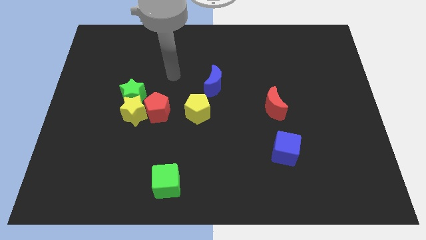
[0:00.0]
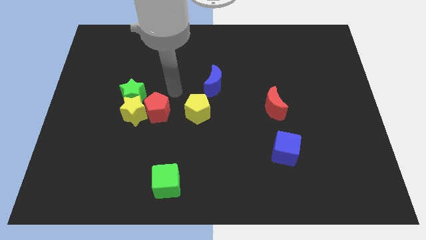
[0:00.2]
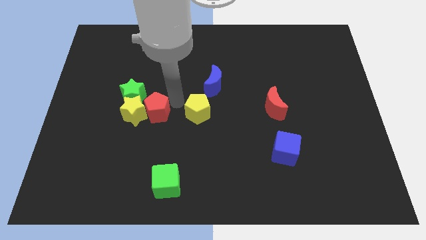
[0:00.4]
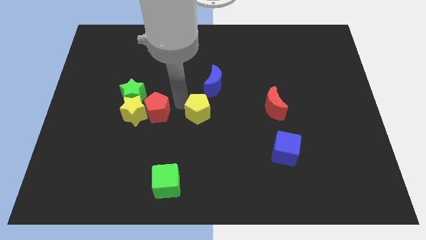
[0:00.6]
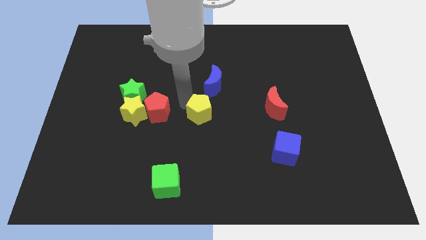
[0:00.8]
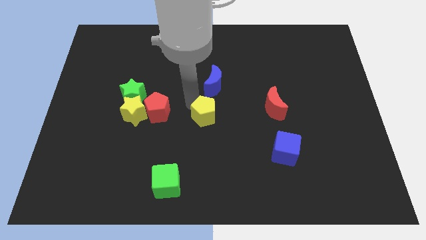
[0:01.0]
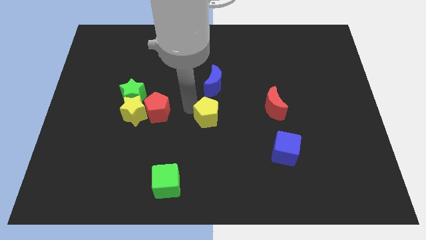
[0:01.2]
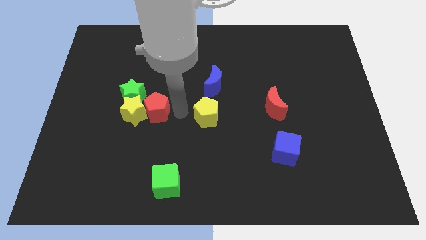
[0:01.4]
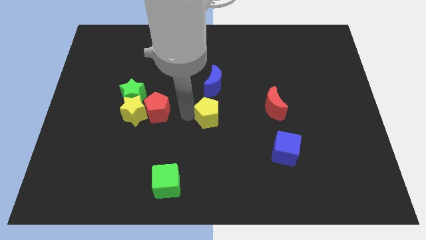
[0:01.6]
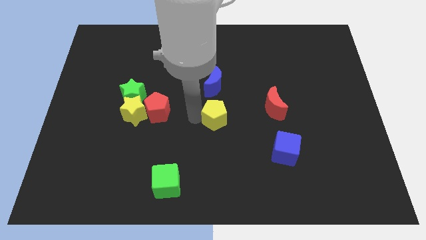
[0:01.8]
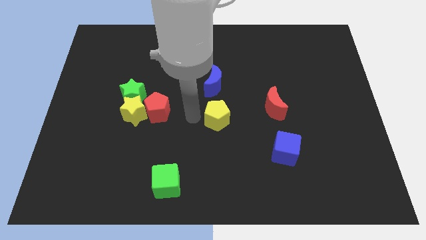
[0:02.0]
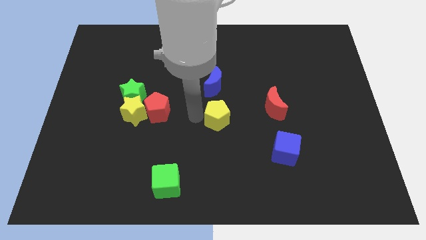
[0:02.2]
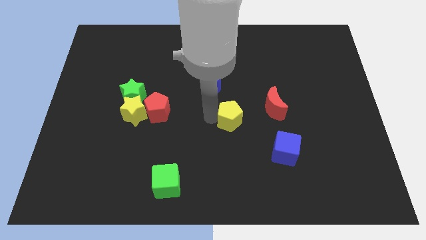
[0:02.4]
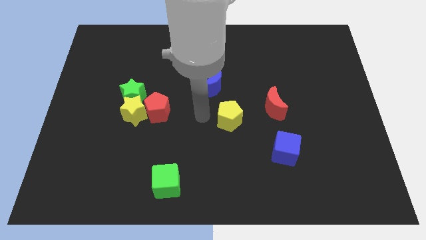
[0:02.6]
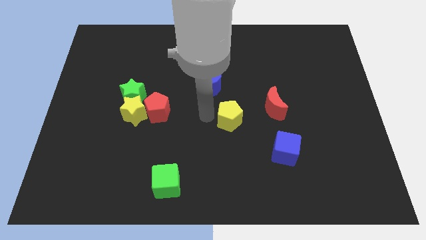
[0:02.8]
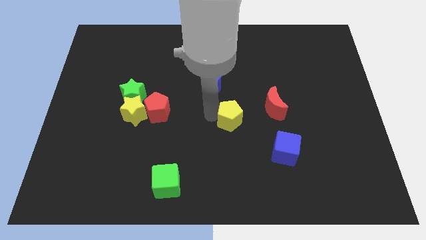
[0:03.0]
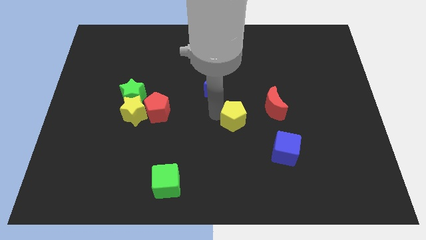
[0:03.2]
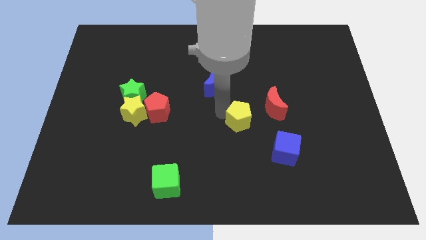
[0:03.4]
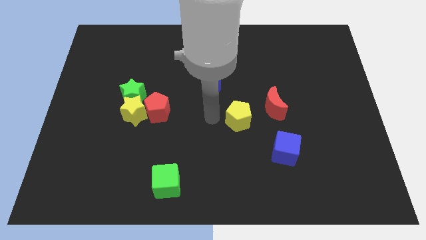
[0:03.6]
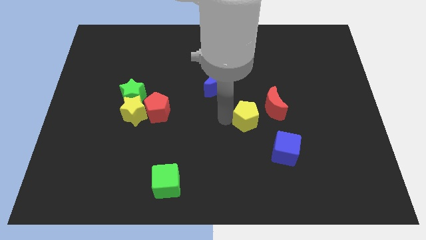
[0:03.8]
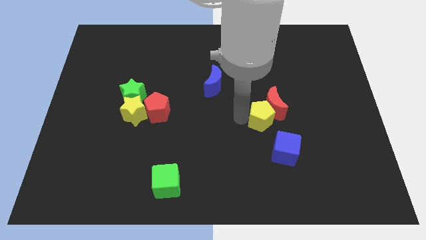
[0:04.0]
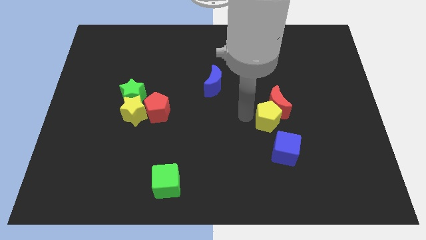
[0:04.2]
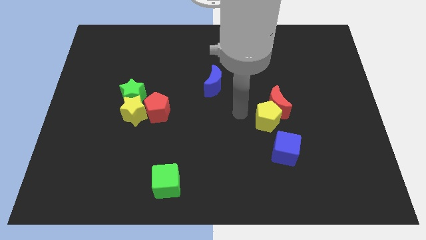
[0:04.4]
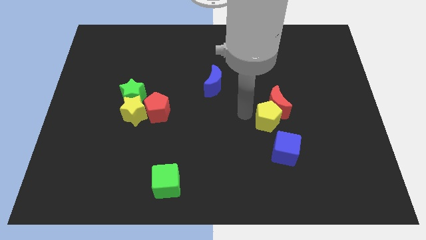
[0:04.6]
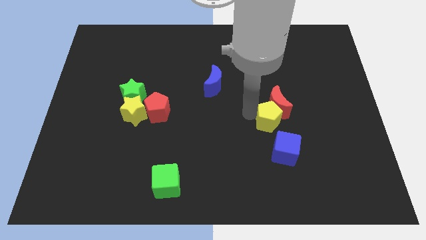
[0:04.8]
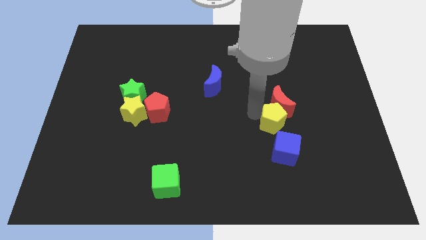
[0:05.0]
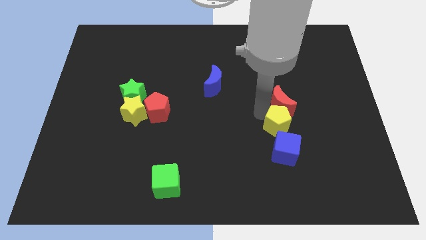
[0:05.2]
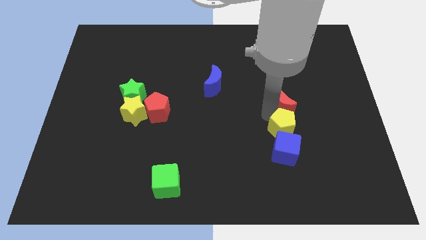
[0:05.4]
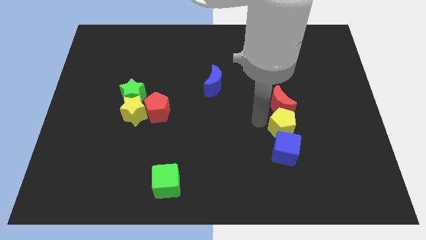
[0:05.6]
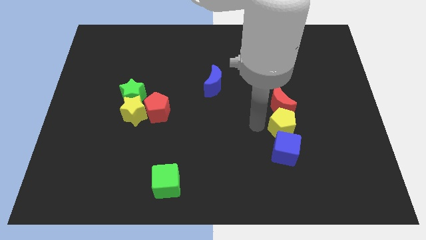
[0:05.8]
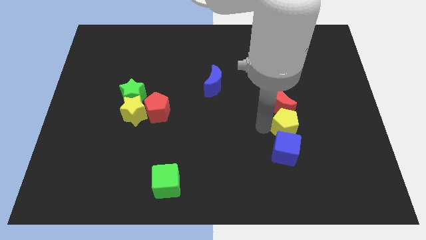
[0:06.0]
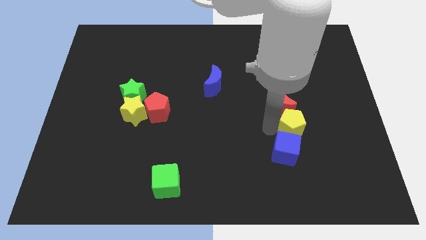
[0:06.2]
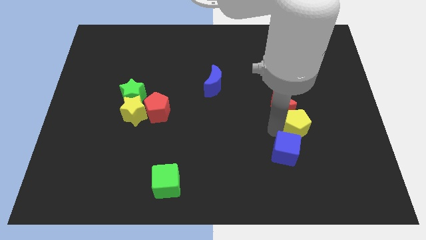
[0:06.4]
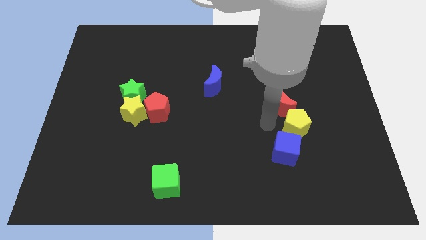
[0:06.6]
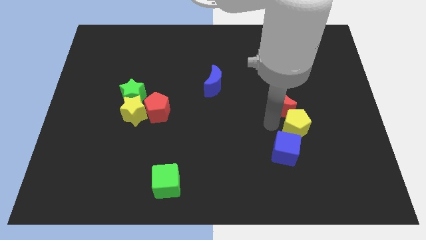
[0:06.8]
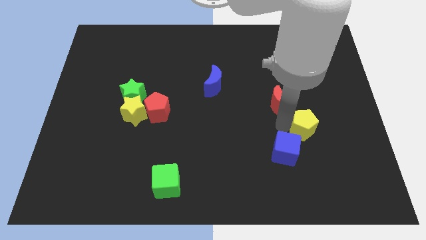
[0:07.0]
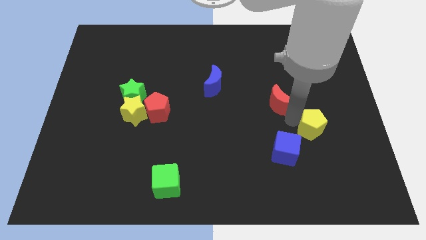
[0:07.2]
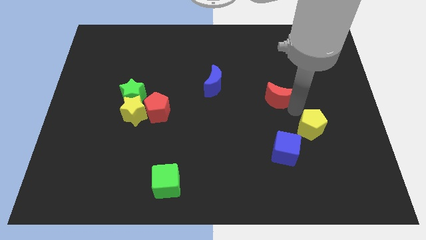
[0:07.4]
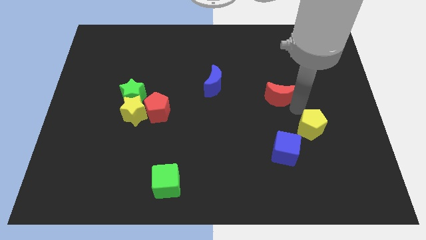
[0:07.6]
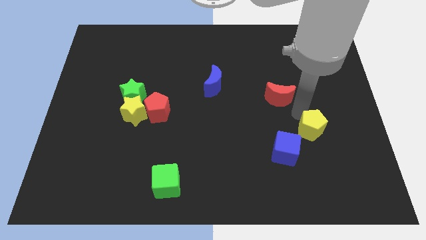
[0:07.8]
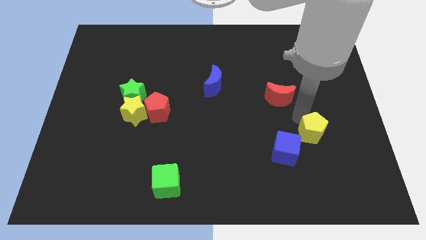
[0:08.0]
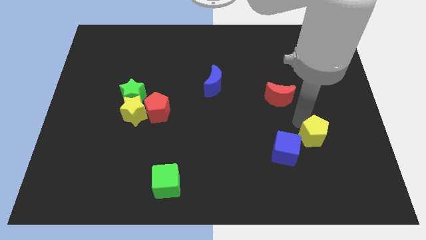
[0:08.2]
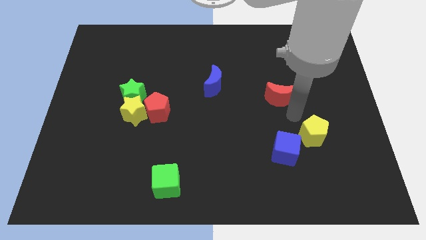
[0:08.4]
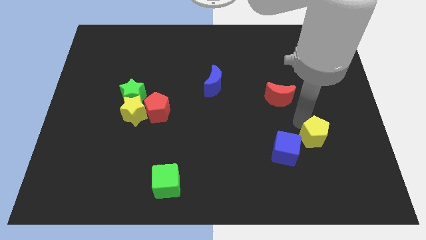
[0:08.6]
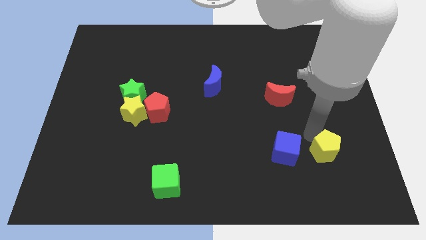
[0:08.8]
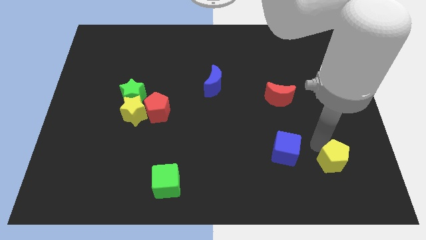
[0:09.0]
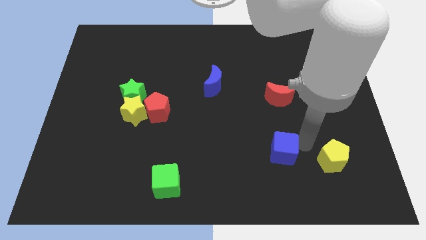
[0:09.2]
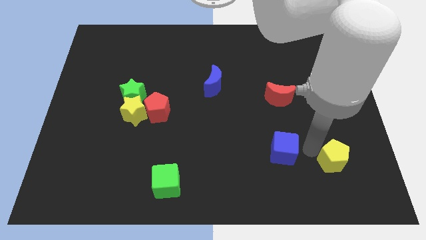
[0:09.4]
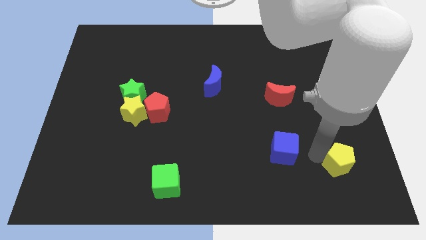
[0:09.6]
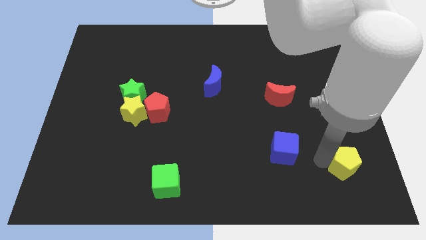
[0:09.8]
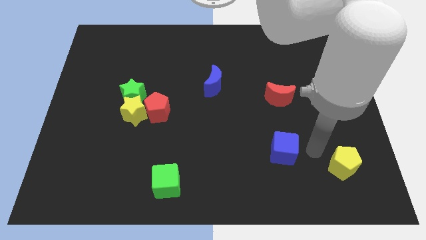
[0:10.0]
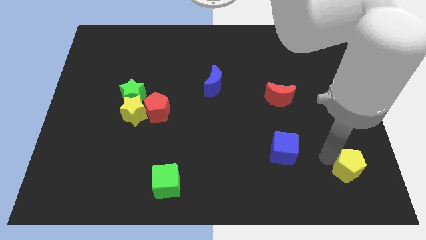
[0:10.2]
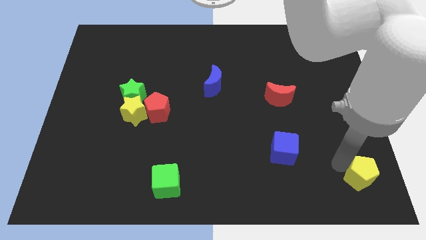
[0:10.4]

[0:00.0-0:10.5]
slide the yellow pentagon to the lower right corner

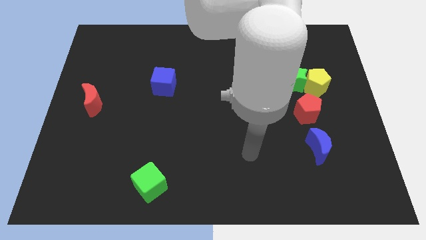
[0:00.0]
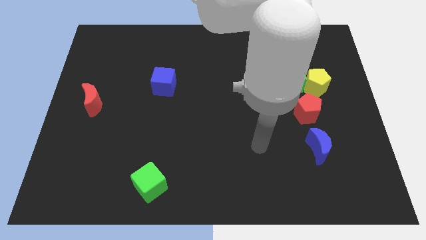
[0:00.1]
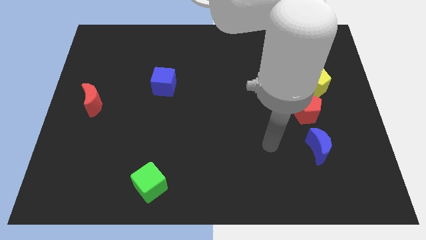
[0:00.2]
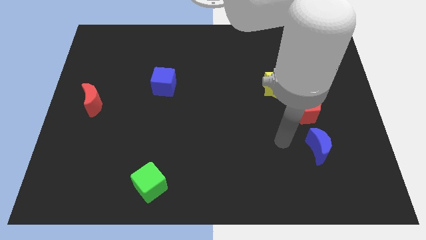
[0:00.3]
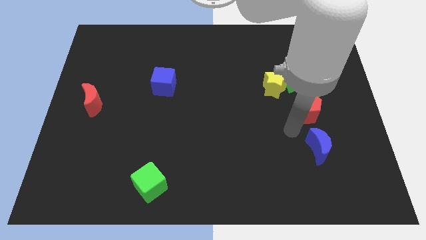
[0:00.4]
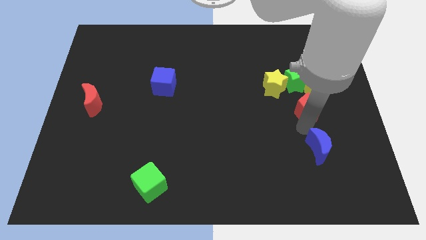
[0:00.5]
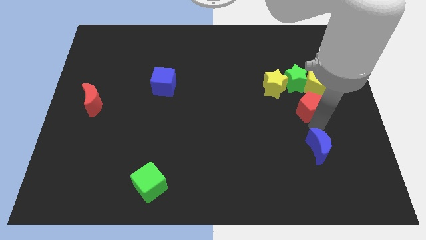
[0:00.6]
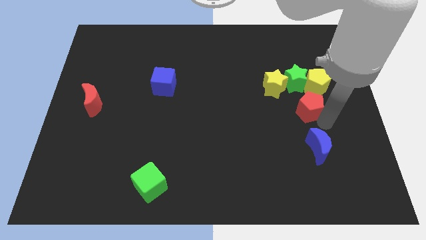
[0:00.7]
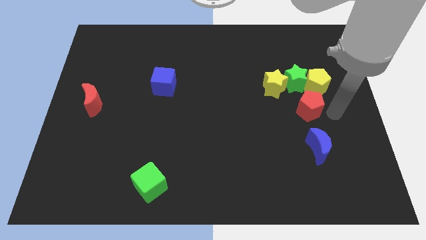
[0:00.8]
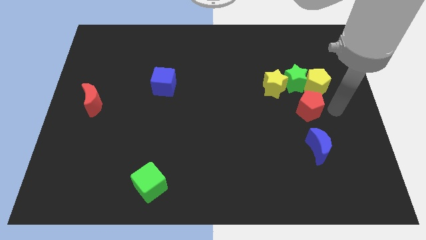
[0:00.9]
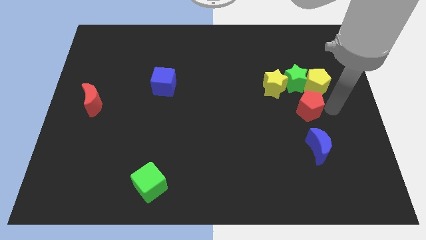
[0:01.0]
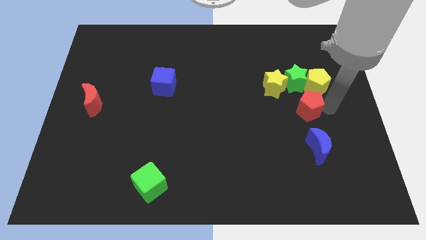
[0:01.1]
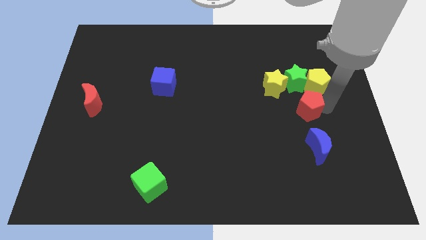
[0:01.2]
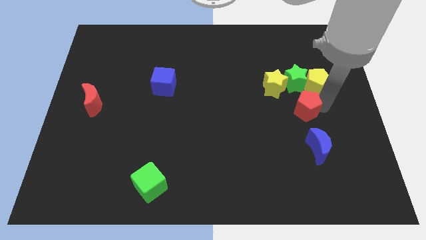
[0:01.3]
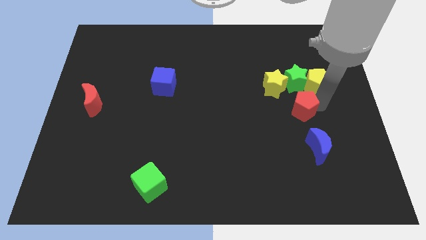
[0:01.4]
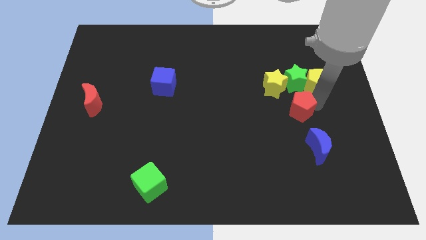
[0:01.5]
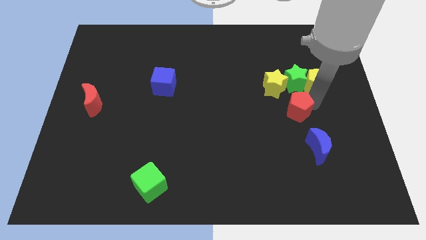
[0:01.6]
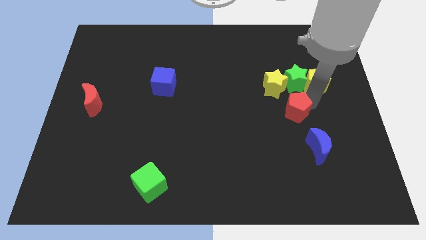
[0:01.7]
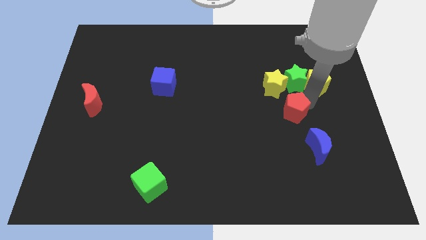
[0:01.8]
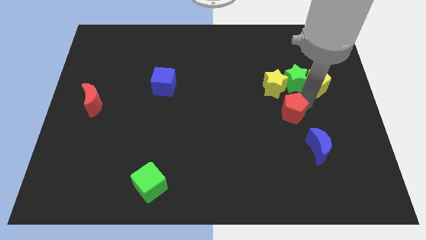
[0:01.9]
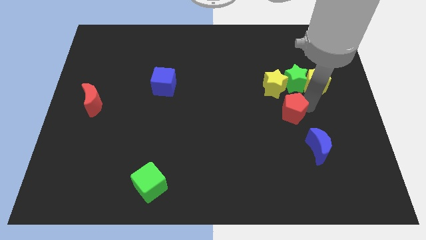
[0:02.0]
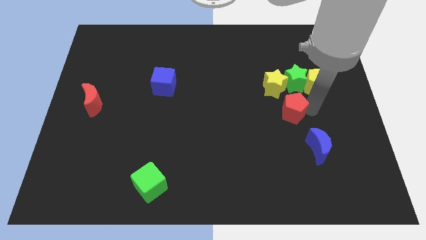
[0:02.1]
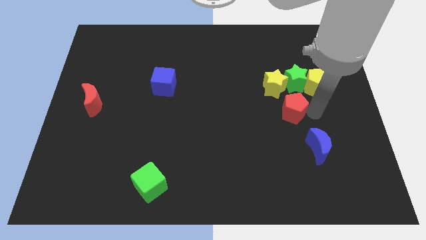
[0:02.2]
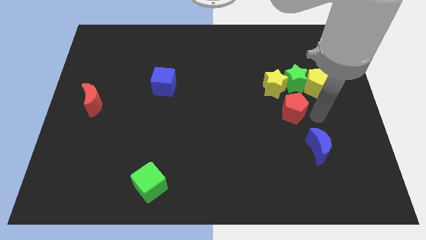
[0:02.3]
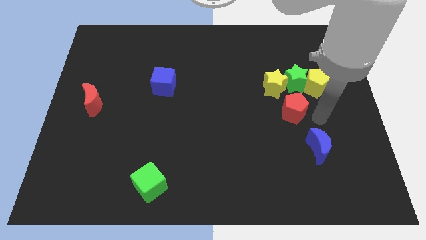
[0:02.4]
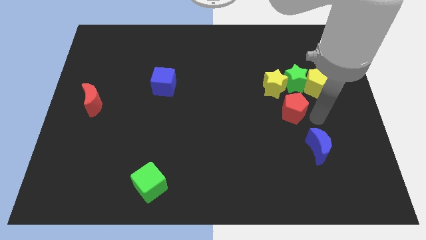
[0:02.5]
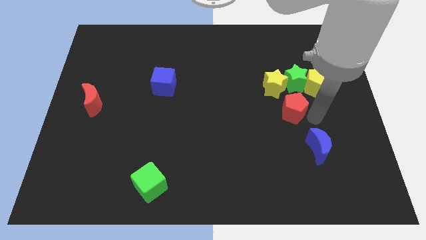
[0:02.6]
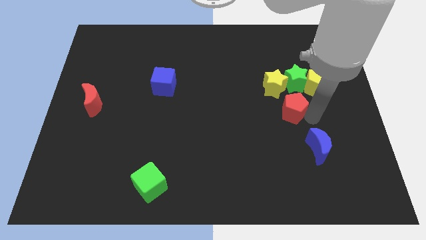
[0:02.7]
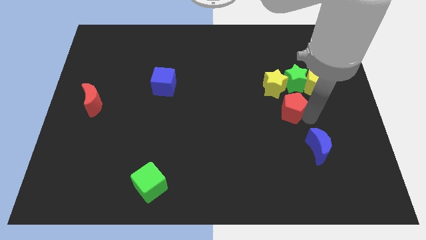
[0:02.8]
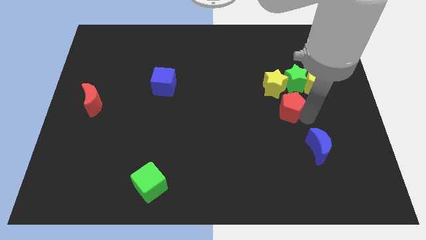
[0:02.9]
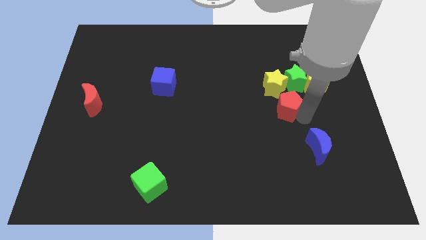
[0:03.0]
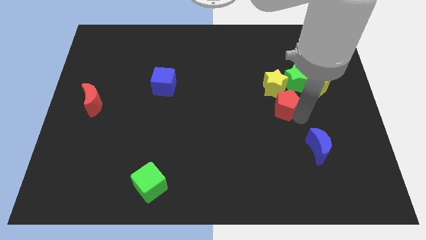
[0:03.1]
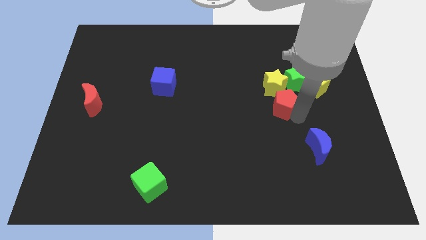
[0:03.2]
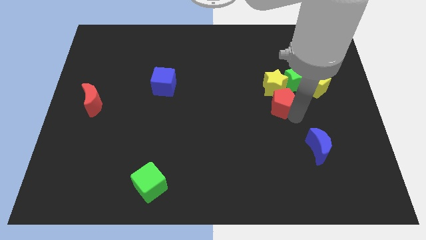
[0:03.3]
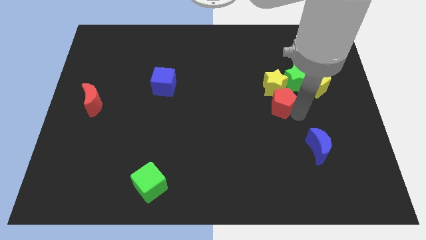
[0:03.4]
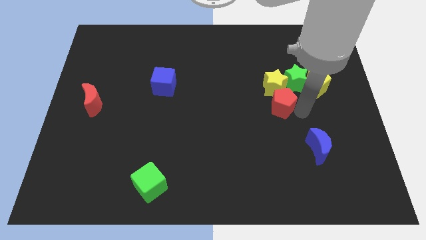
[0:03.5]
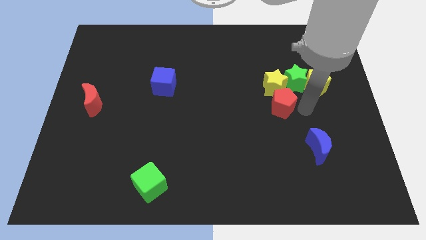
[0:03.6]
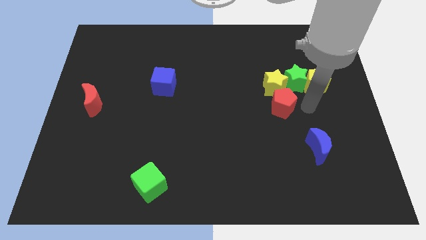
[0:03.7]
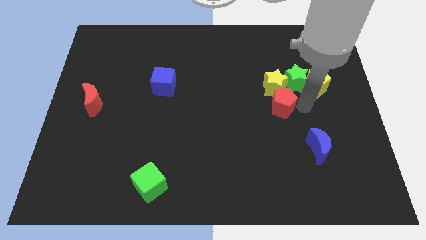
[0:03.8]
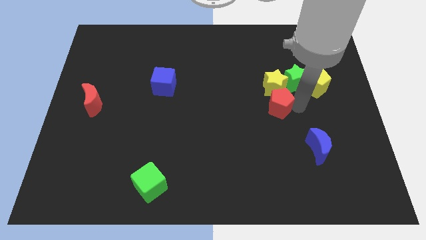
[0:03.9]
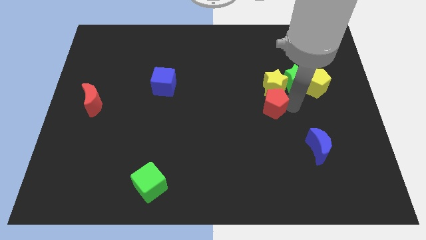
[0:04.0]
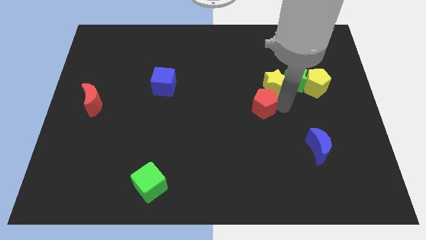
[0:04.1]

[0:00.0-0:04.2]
put the red pentagon to the center
